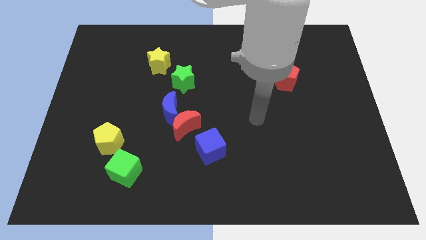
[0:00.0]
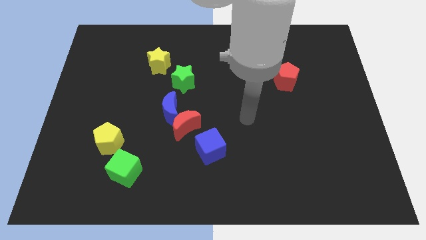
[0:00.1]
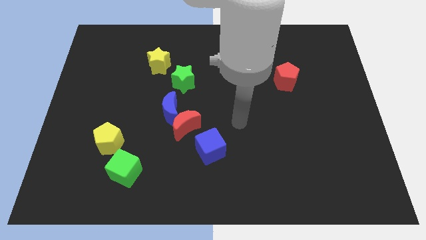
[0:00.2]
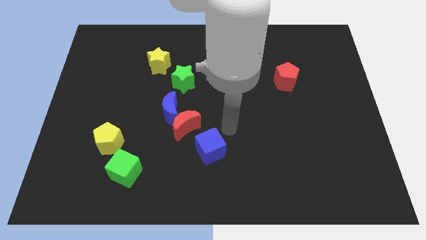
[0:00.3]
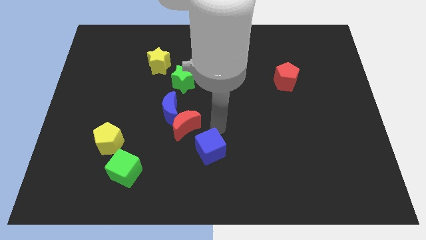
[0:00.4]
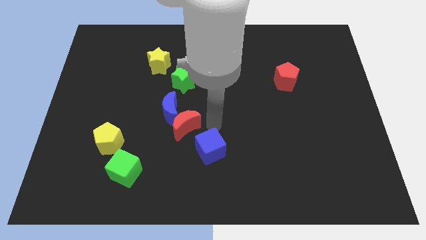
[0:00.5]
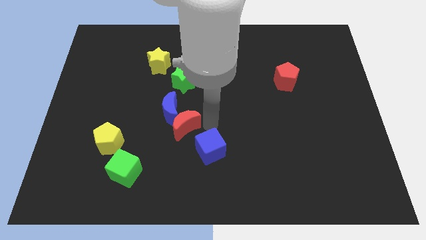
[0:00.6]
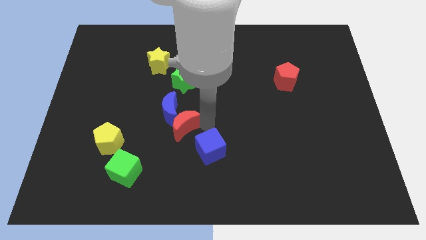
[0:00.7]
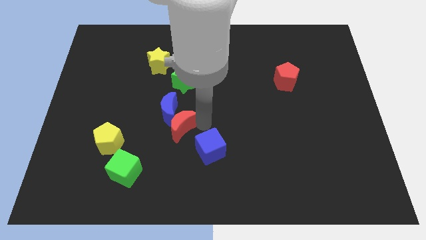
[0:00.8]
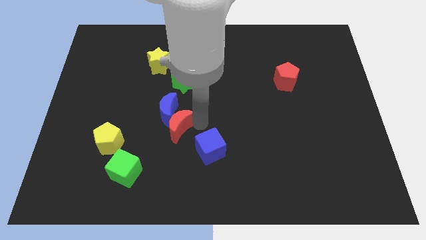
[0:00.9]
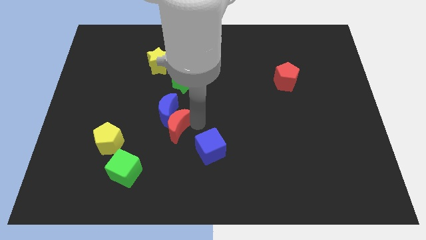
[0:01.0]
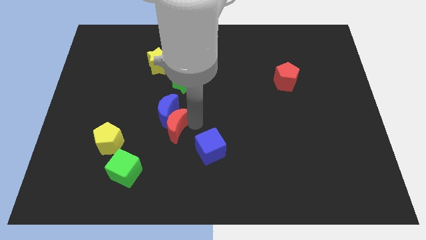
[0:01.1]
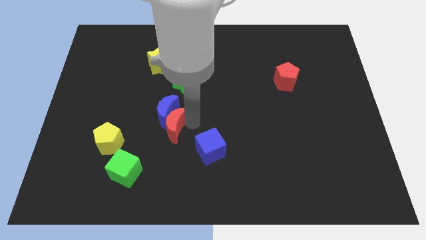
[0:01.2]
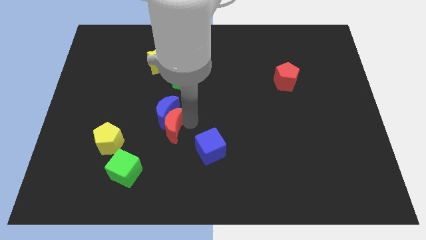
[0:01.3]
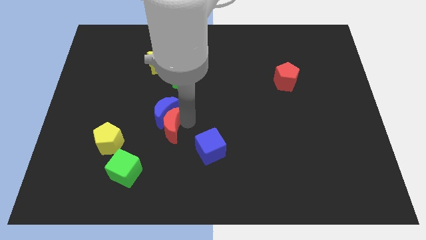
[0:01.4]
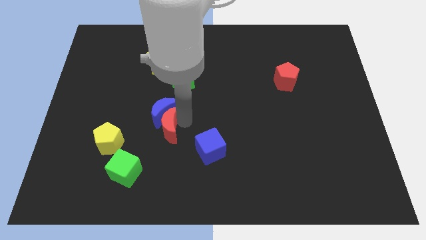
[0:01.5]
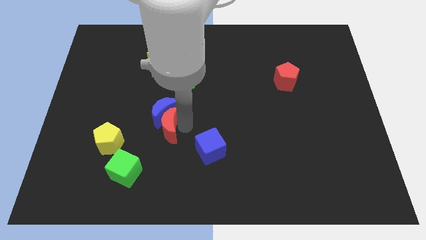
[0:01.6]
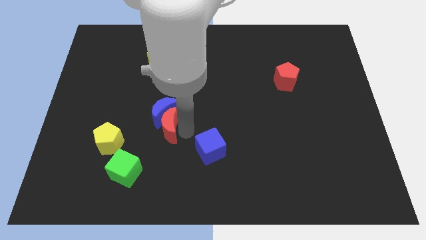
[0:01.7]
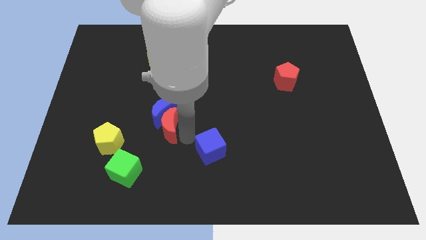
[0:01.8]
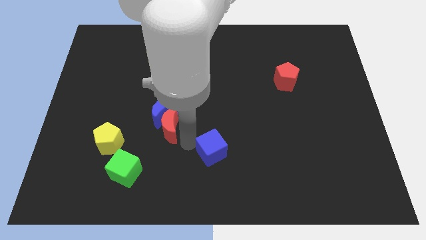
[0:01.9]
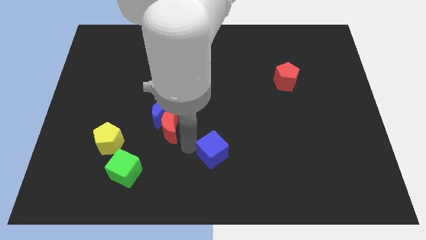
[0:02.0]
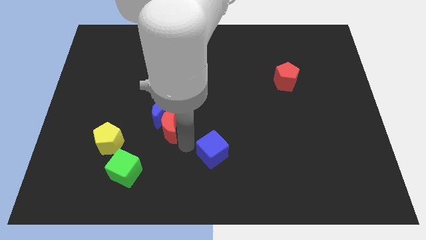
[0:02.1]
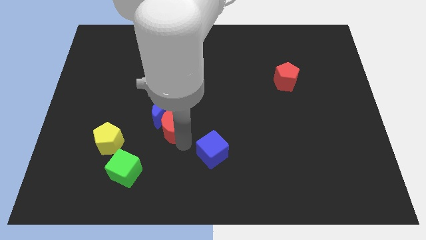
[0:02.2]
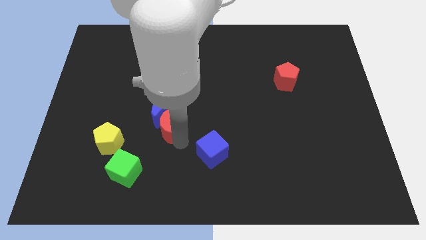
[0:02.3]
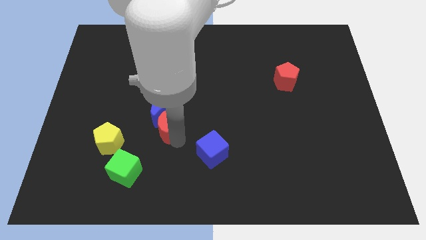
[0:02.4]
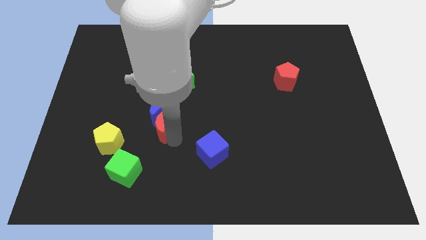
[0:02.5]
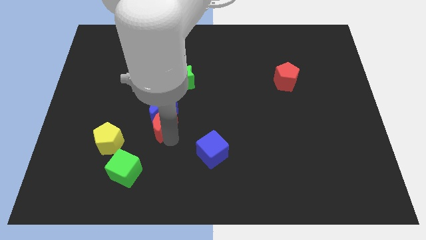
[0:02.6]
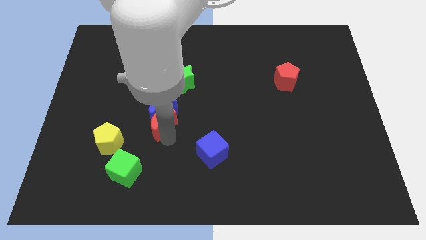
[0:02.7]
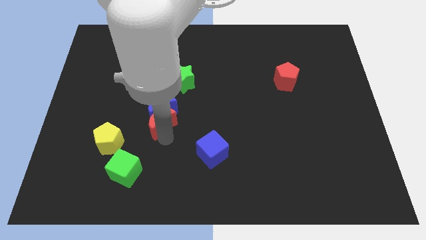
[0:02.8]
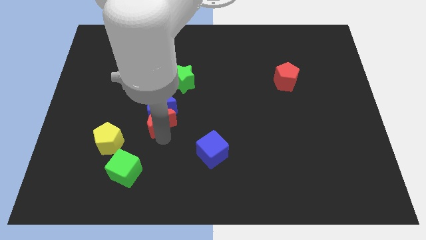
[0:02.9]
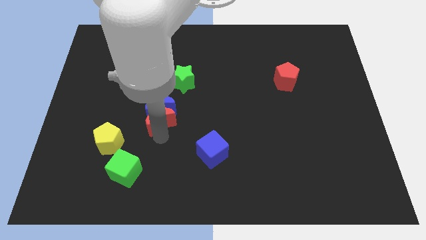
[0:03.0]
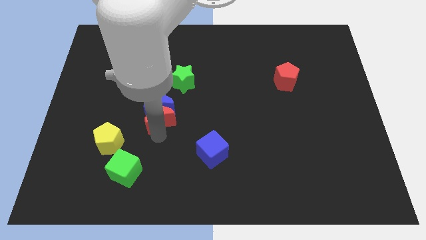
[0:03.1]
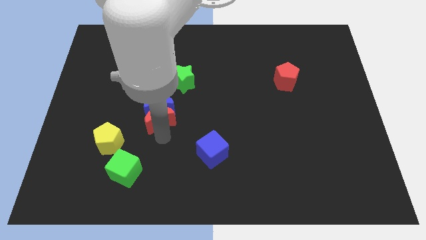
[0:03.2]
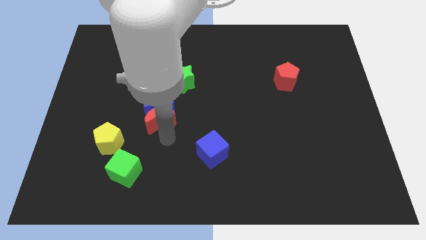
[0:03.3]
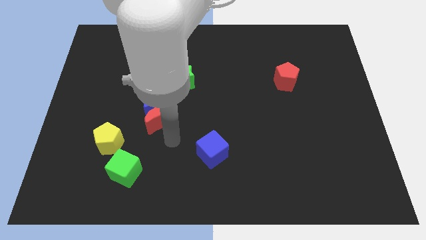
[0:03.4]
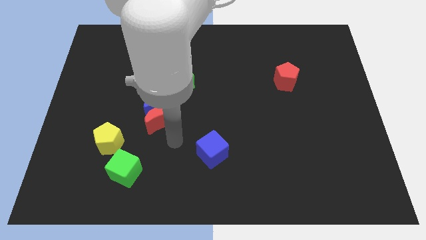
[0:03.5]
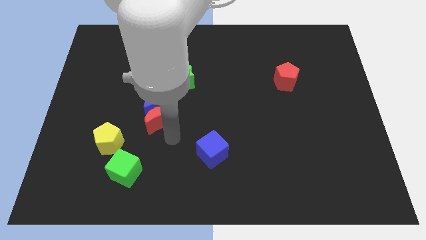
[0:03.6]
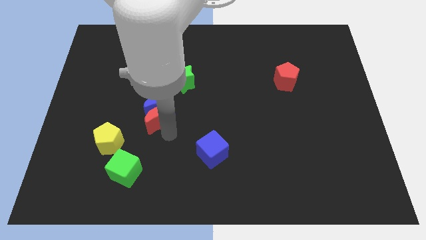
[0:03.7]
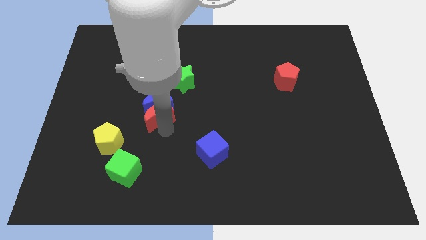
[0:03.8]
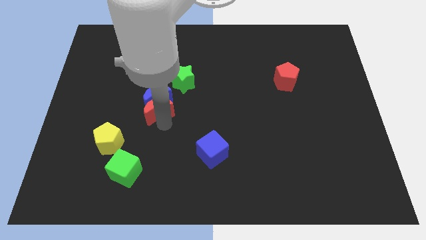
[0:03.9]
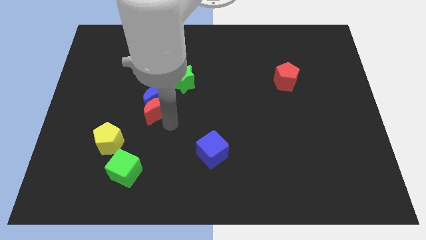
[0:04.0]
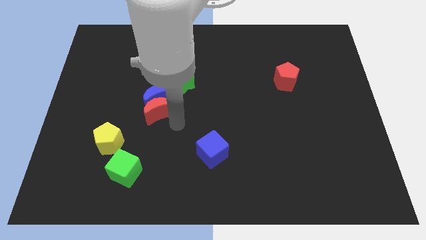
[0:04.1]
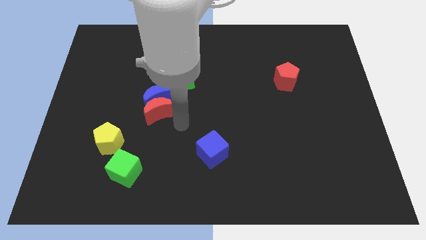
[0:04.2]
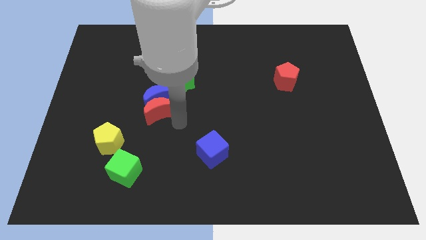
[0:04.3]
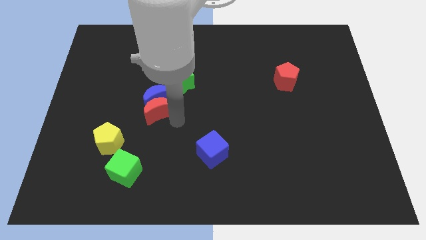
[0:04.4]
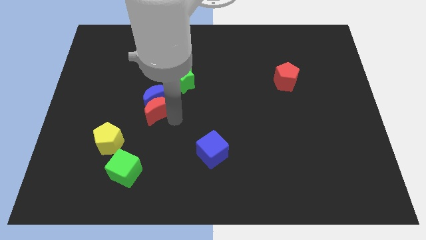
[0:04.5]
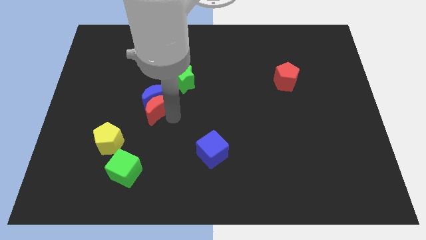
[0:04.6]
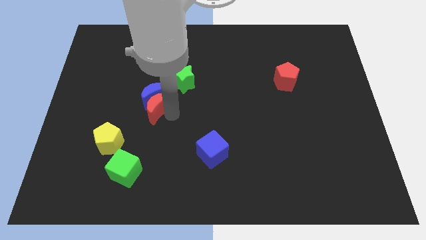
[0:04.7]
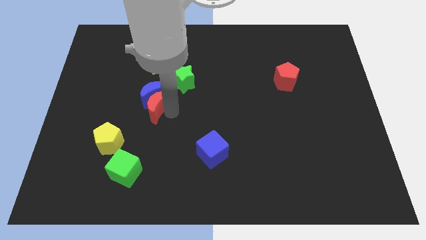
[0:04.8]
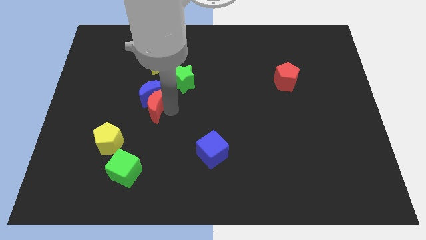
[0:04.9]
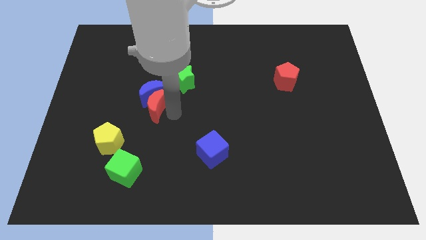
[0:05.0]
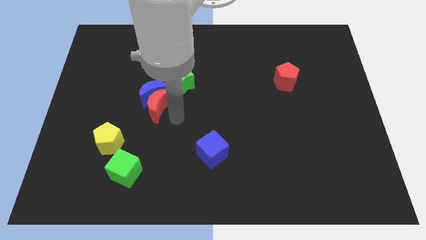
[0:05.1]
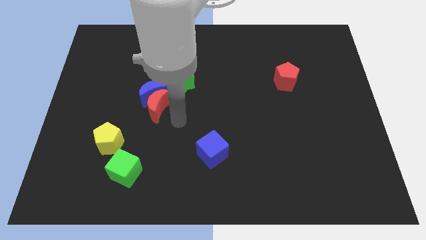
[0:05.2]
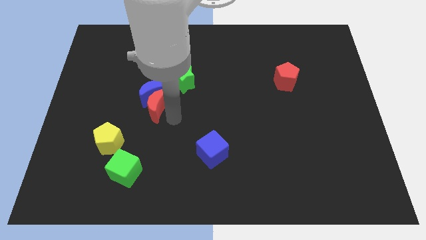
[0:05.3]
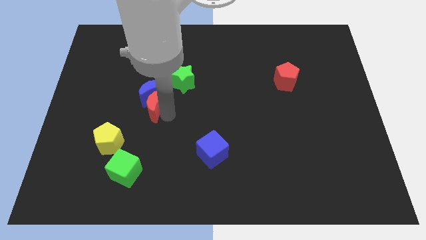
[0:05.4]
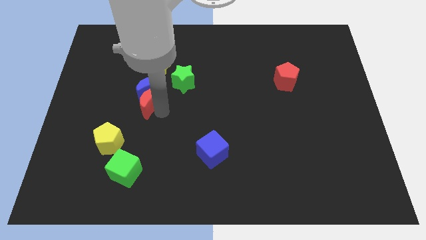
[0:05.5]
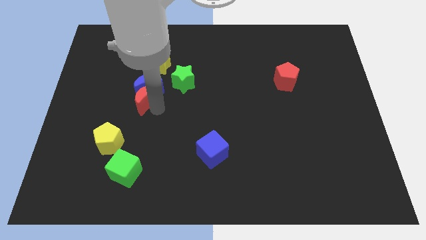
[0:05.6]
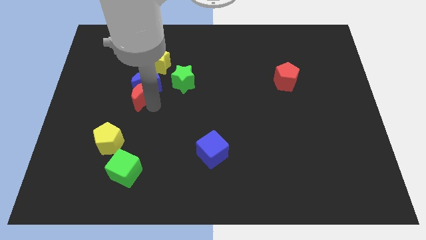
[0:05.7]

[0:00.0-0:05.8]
pull the red moon apart from the blue moon and blue cube

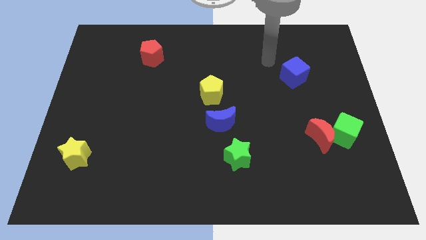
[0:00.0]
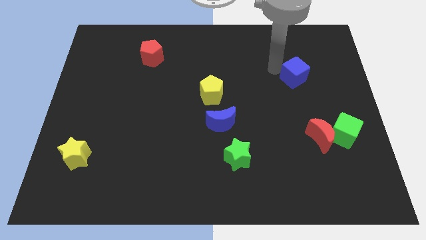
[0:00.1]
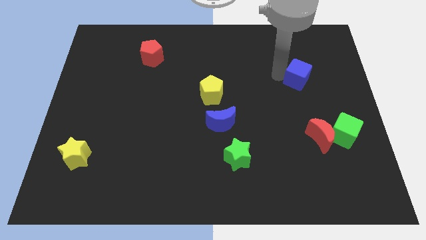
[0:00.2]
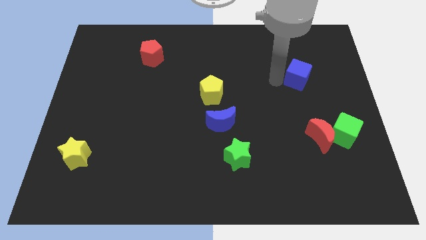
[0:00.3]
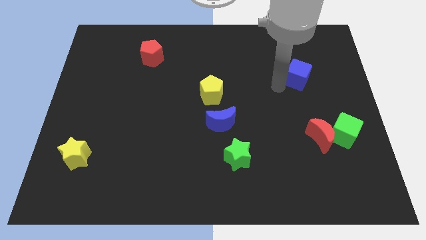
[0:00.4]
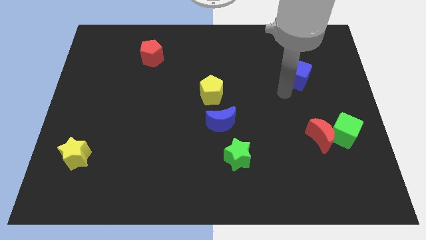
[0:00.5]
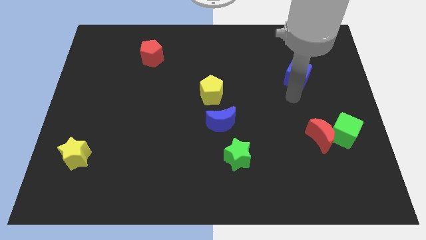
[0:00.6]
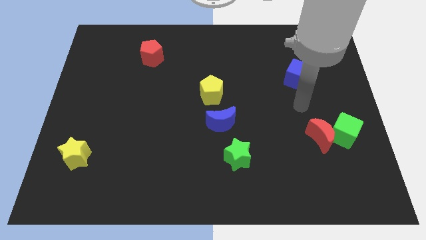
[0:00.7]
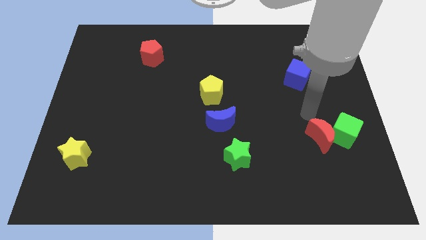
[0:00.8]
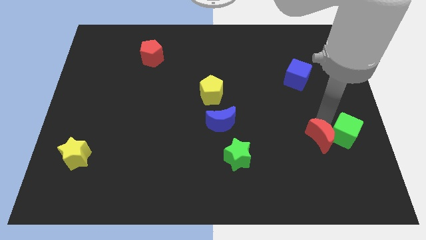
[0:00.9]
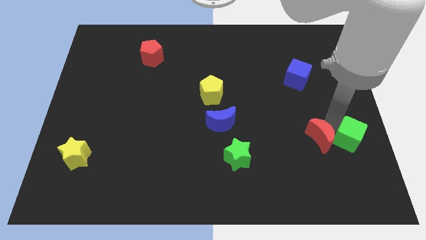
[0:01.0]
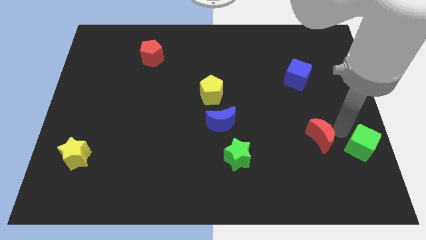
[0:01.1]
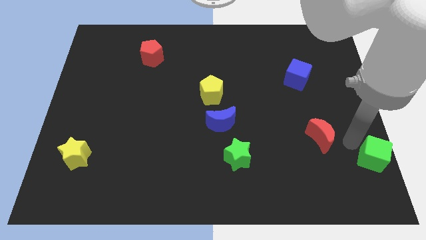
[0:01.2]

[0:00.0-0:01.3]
move the red moon away from the green cube

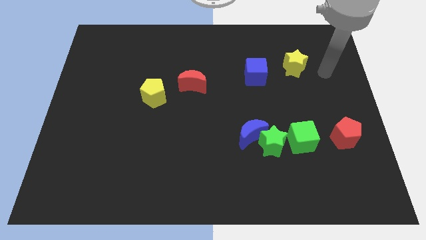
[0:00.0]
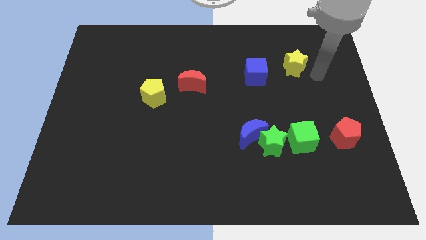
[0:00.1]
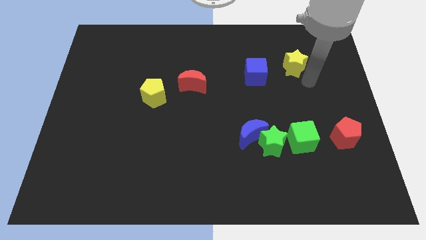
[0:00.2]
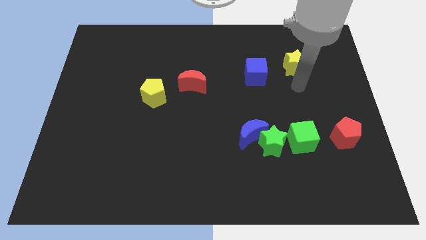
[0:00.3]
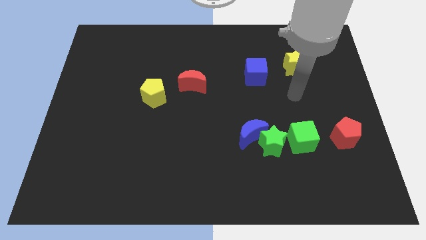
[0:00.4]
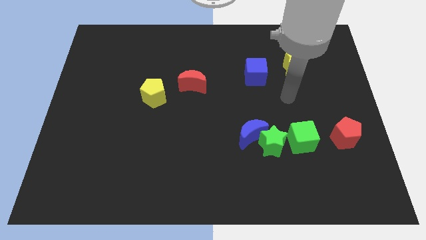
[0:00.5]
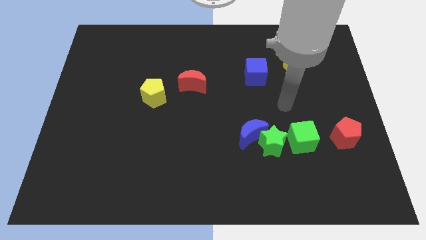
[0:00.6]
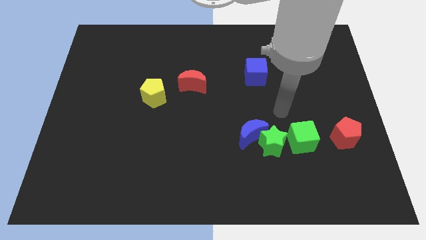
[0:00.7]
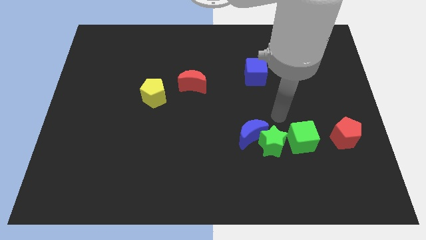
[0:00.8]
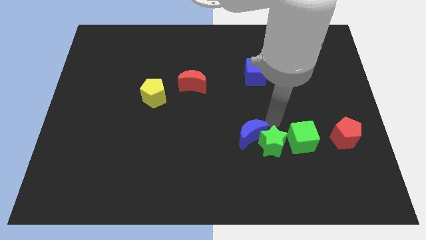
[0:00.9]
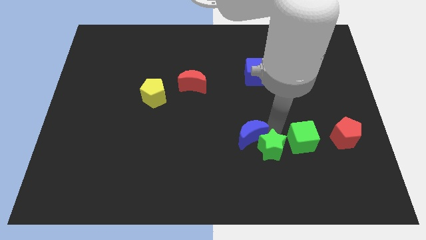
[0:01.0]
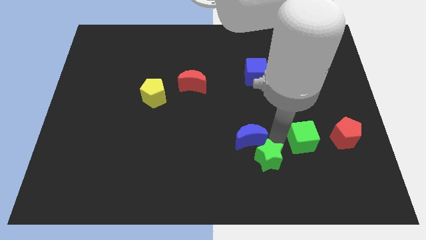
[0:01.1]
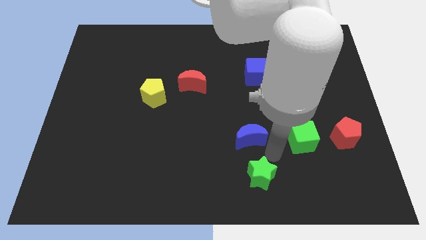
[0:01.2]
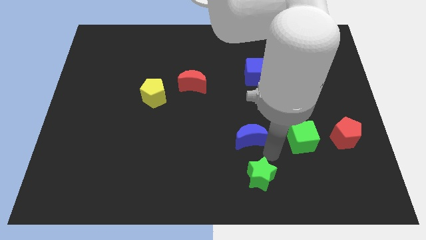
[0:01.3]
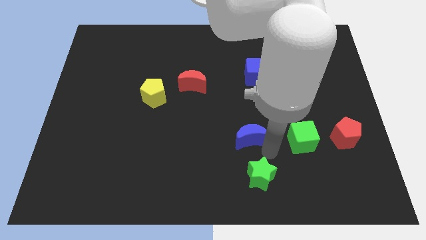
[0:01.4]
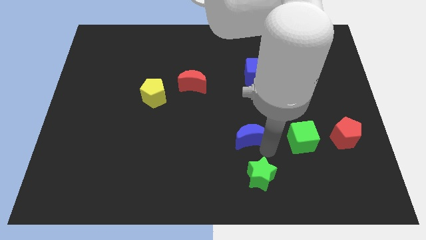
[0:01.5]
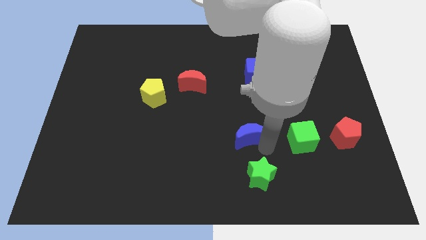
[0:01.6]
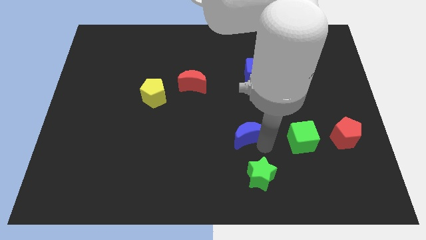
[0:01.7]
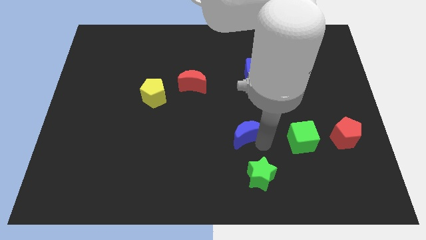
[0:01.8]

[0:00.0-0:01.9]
pull the blue moon apart from the green star

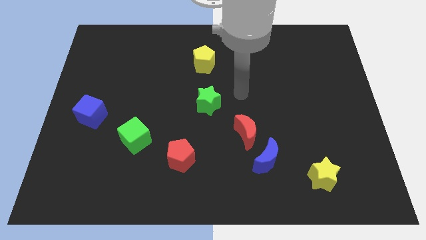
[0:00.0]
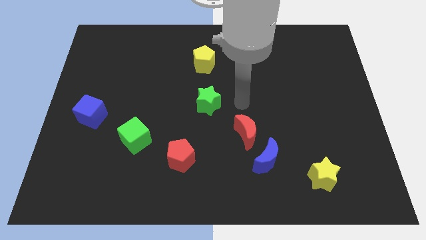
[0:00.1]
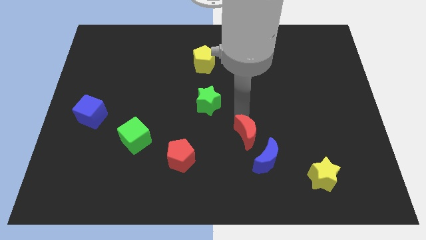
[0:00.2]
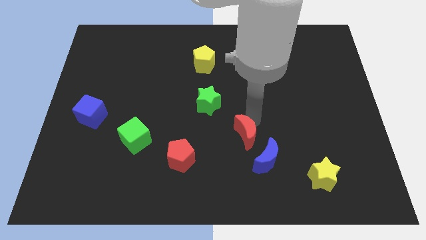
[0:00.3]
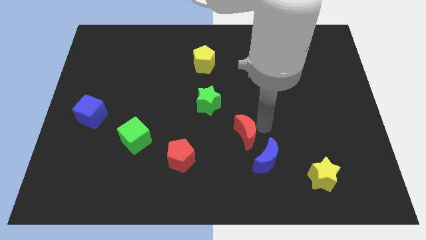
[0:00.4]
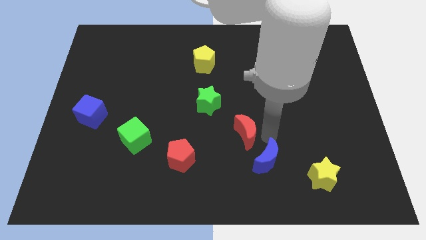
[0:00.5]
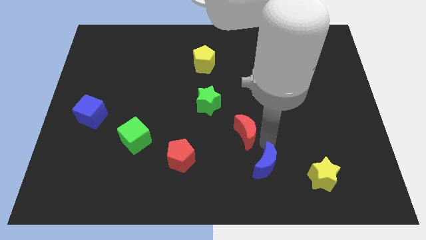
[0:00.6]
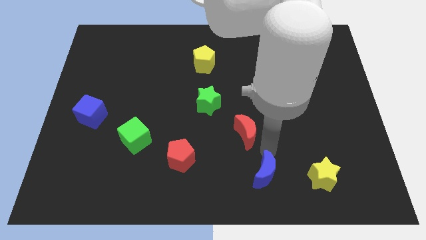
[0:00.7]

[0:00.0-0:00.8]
separate the red moon from the blue moon
